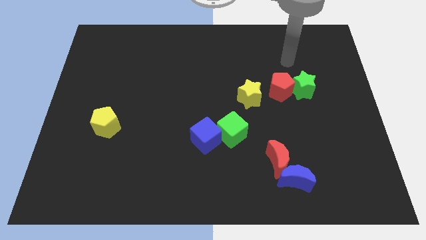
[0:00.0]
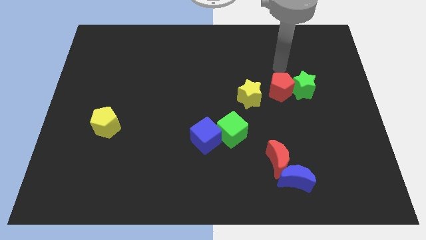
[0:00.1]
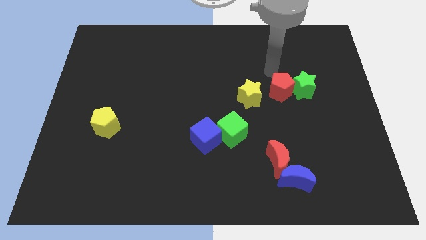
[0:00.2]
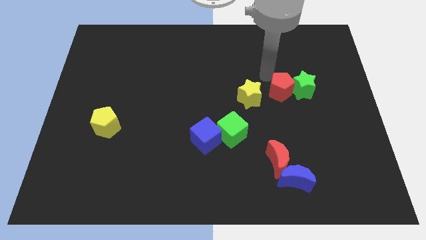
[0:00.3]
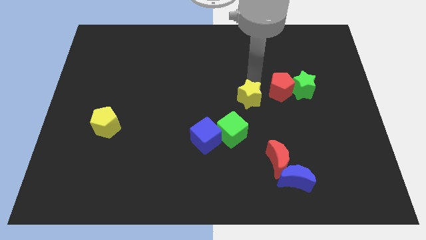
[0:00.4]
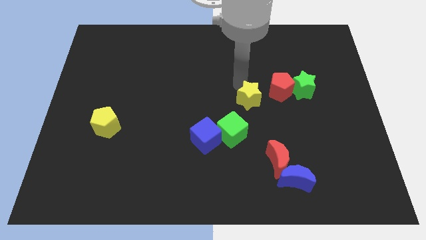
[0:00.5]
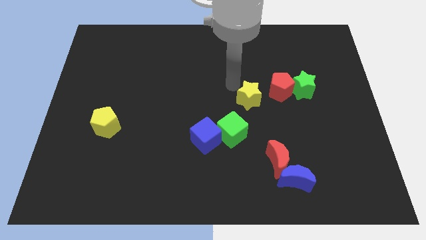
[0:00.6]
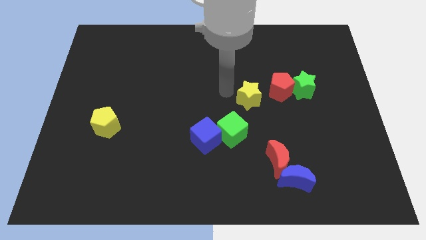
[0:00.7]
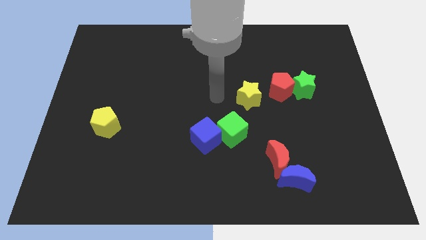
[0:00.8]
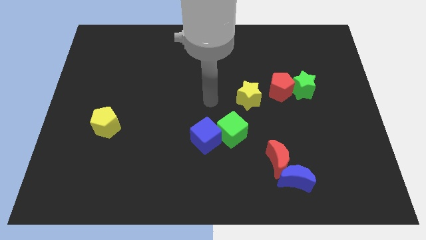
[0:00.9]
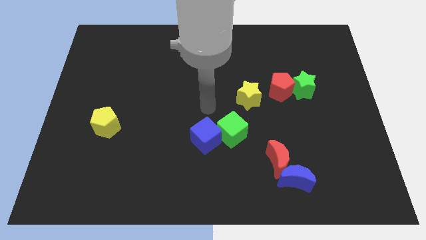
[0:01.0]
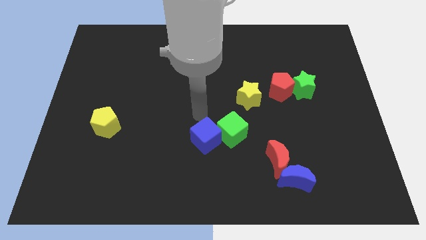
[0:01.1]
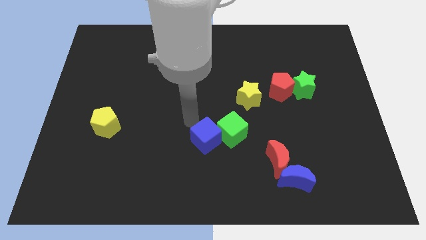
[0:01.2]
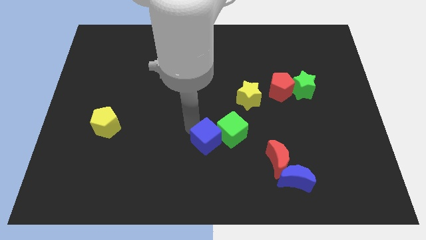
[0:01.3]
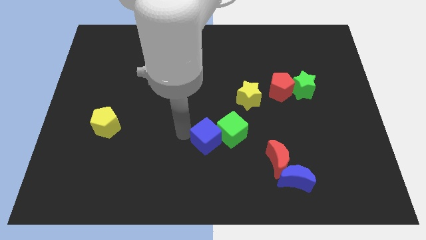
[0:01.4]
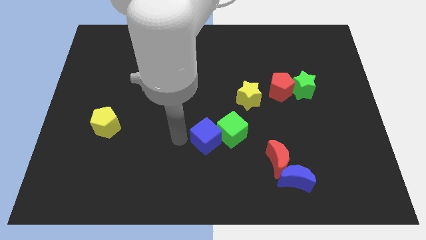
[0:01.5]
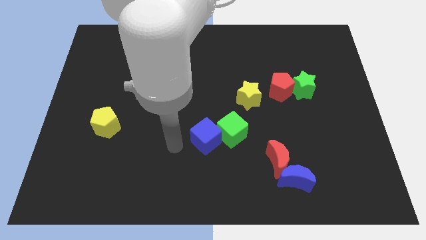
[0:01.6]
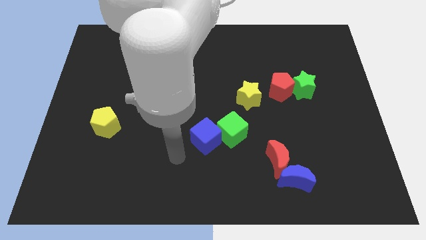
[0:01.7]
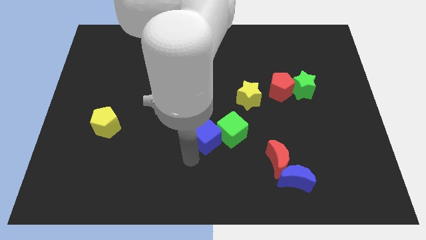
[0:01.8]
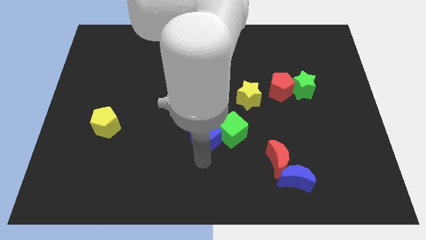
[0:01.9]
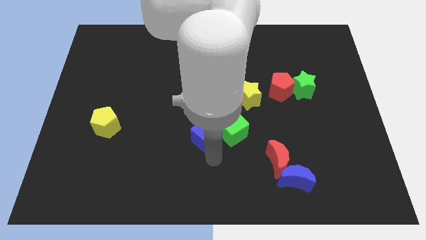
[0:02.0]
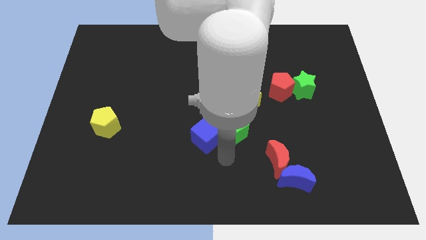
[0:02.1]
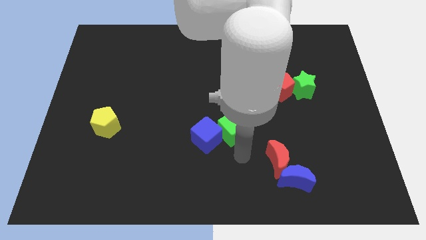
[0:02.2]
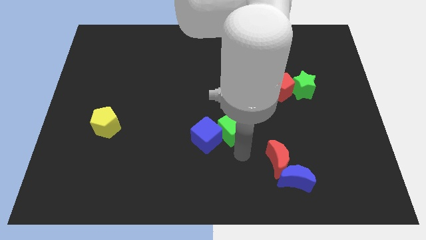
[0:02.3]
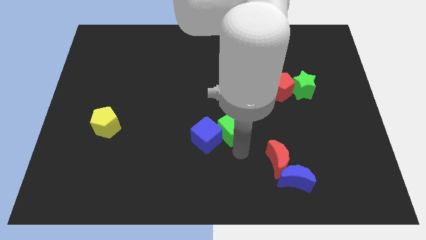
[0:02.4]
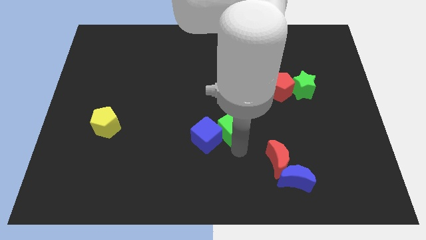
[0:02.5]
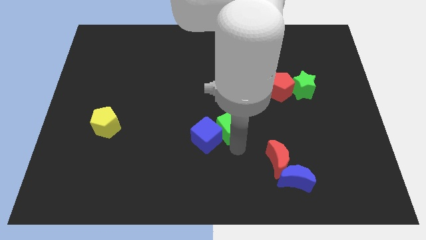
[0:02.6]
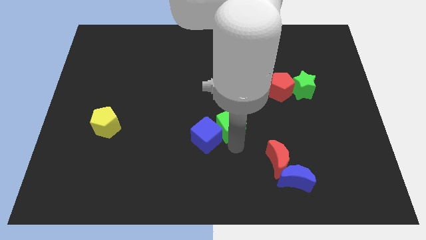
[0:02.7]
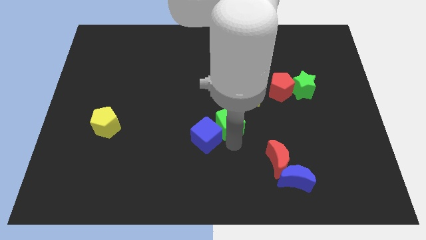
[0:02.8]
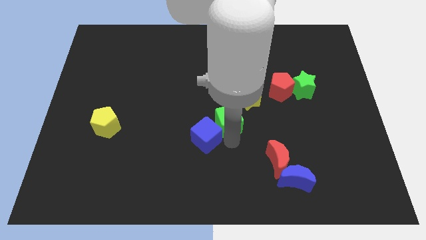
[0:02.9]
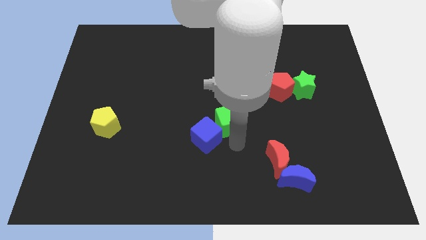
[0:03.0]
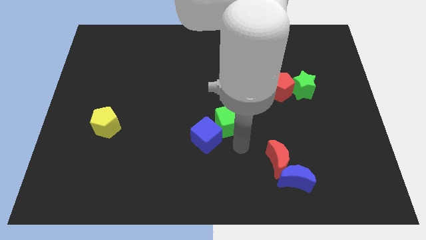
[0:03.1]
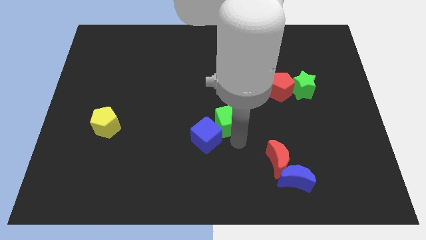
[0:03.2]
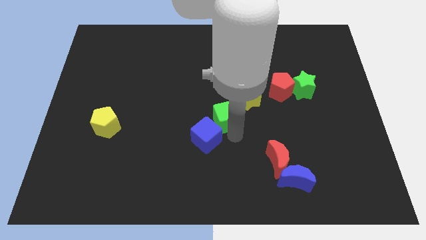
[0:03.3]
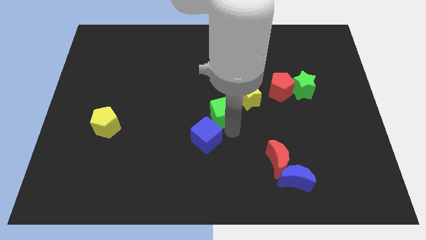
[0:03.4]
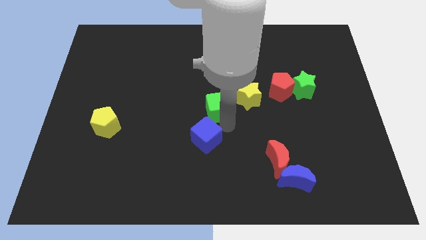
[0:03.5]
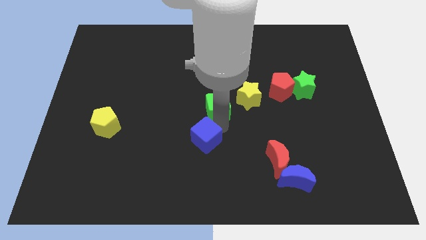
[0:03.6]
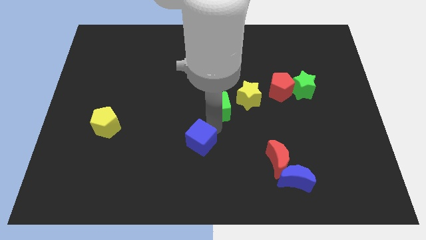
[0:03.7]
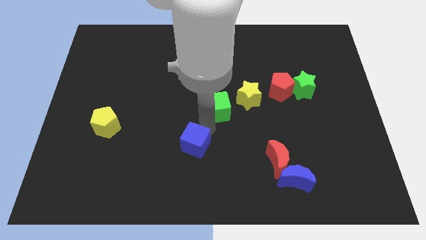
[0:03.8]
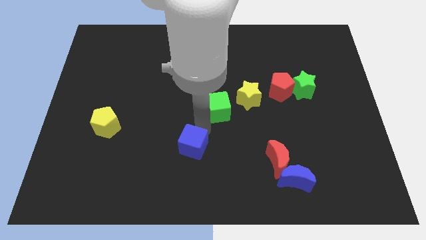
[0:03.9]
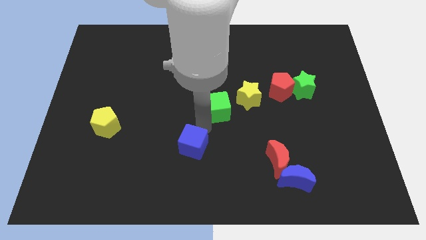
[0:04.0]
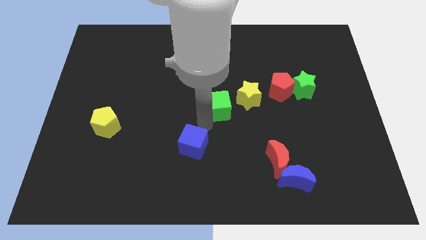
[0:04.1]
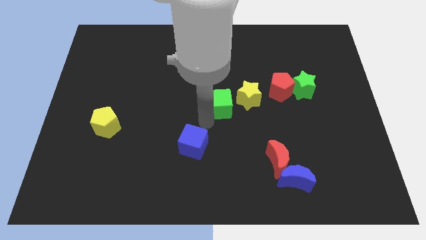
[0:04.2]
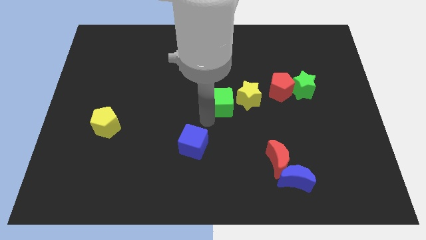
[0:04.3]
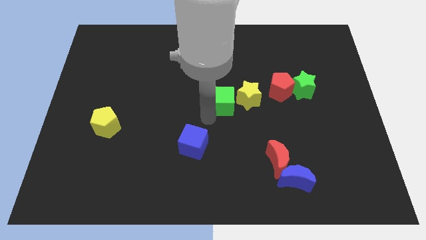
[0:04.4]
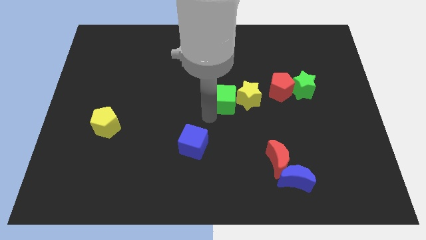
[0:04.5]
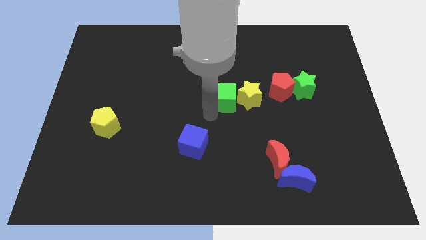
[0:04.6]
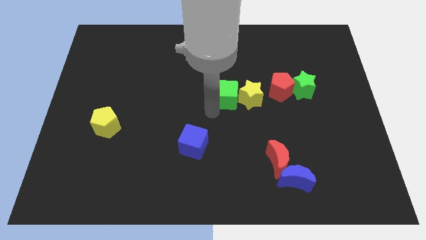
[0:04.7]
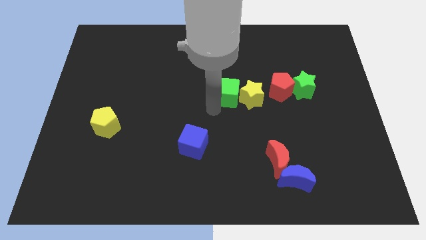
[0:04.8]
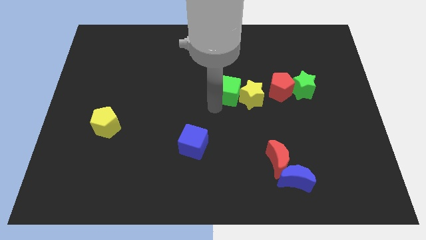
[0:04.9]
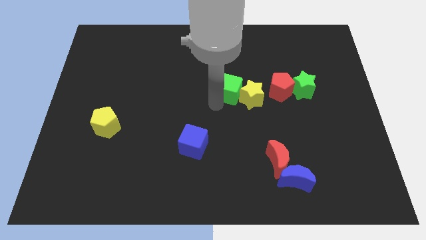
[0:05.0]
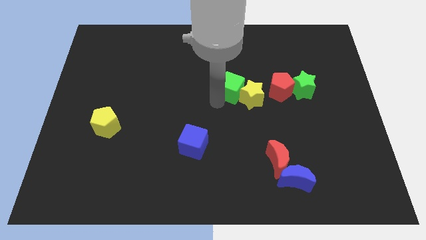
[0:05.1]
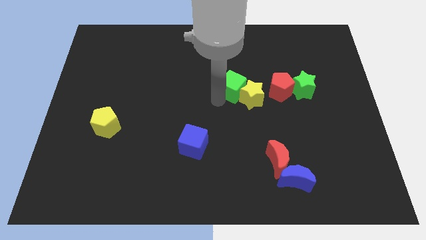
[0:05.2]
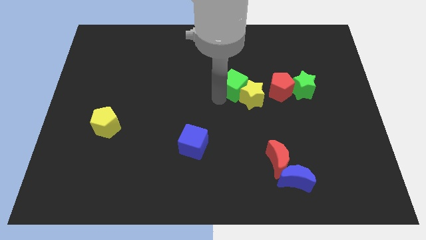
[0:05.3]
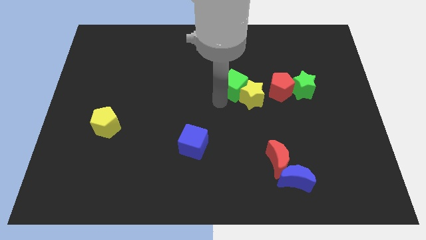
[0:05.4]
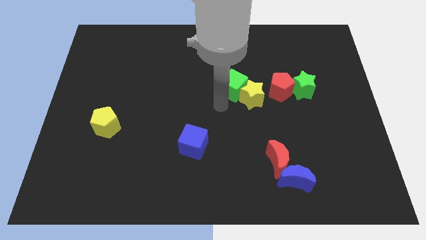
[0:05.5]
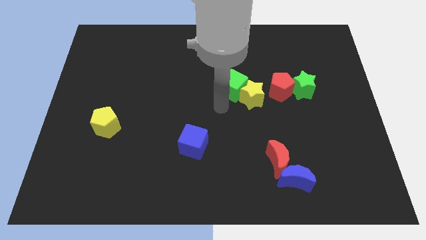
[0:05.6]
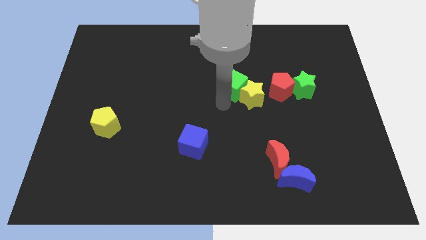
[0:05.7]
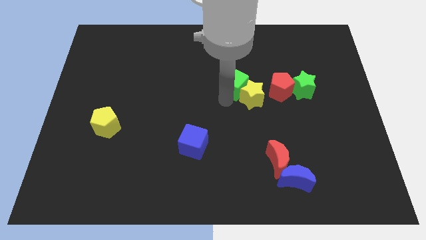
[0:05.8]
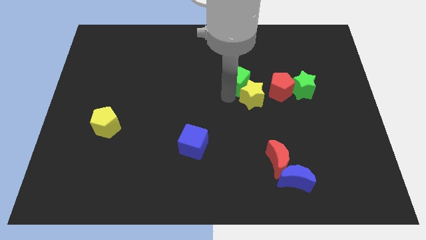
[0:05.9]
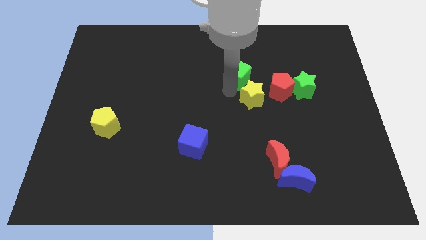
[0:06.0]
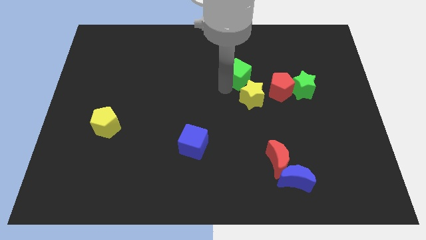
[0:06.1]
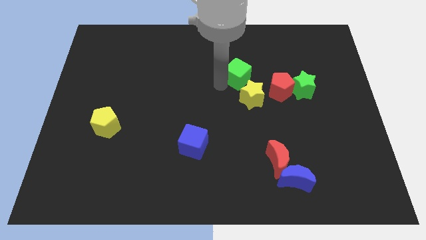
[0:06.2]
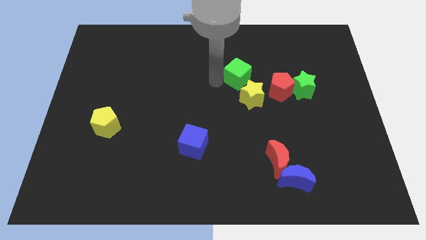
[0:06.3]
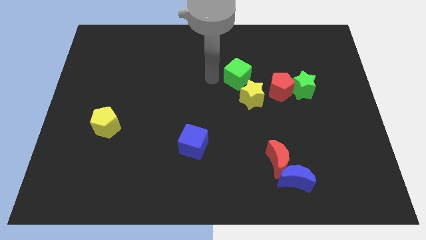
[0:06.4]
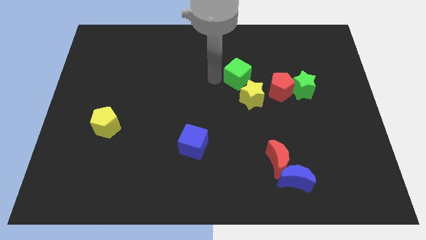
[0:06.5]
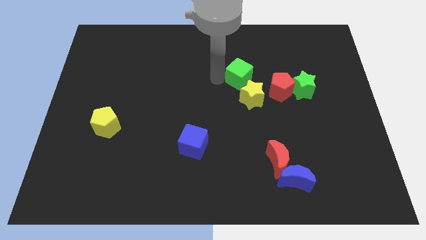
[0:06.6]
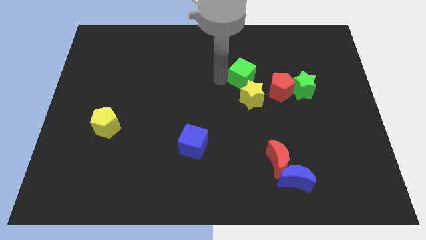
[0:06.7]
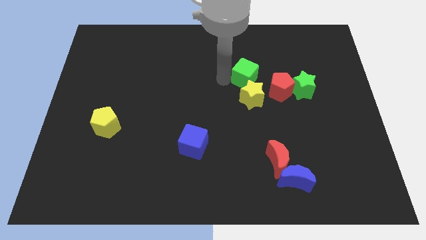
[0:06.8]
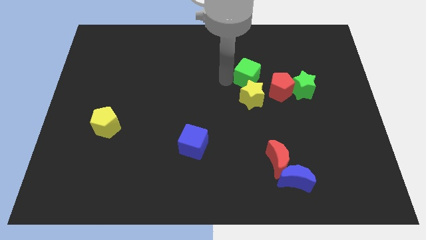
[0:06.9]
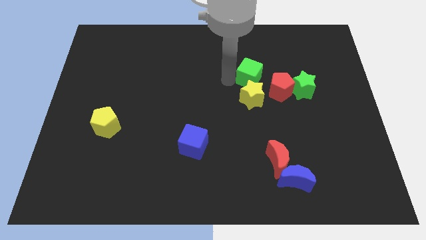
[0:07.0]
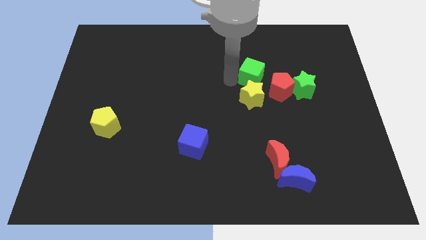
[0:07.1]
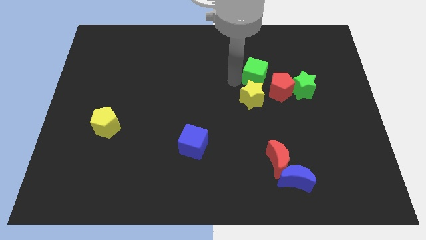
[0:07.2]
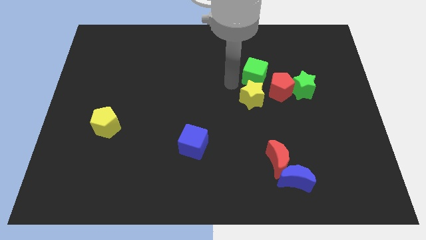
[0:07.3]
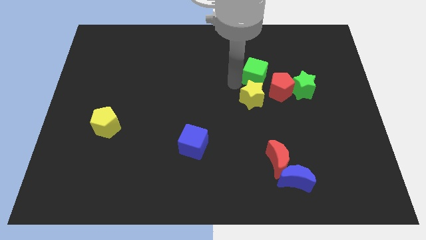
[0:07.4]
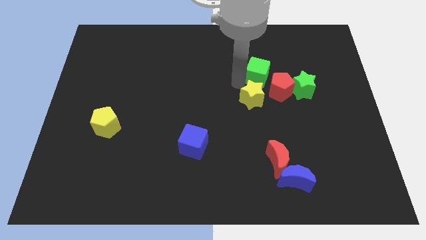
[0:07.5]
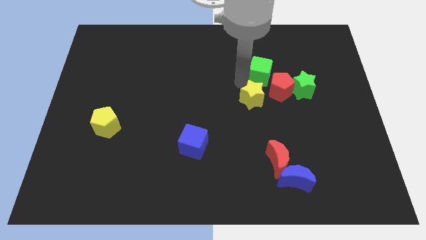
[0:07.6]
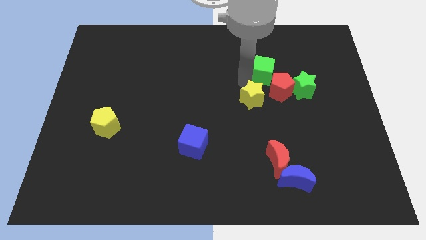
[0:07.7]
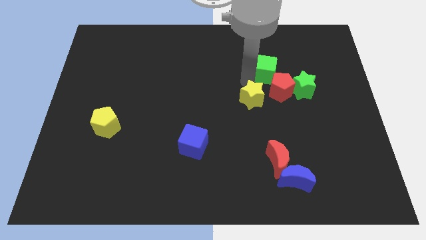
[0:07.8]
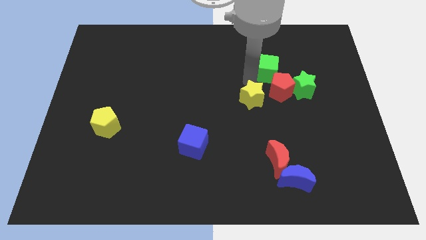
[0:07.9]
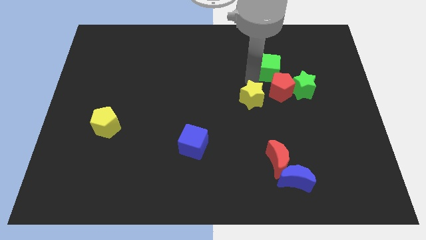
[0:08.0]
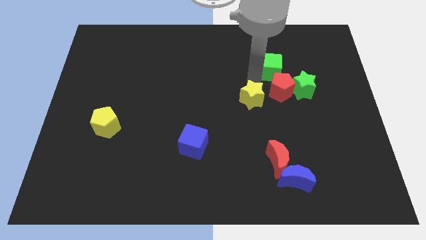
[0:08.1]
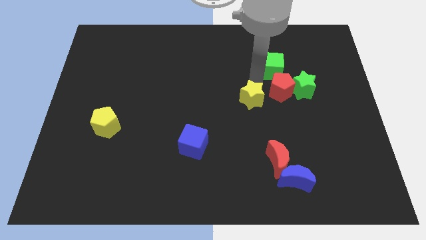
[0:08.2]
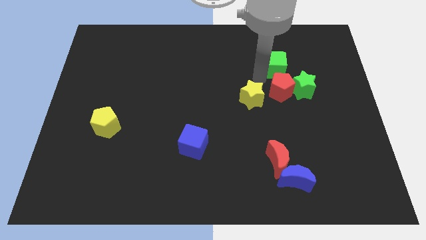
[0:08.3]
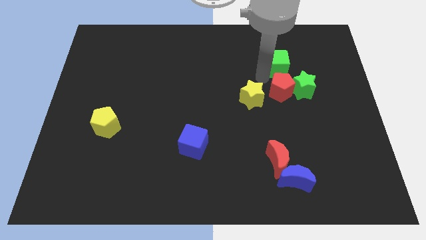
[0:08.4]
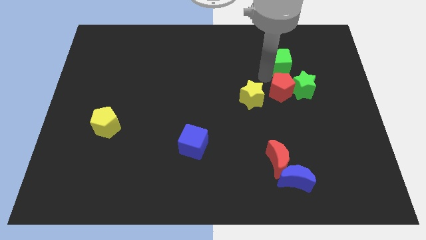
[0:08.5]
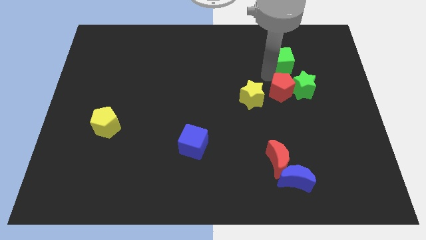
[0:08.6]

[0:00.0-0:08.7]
put the green cube to the top of the green star
